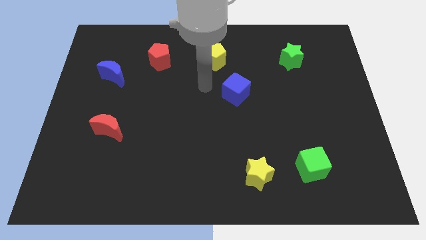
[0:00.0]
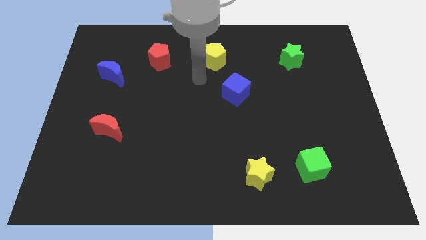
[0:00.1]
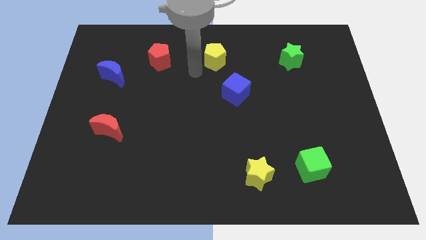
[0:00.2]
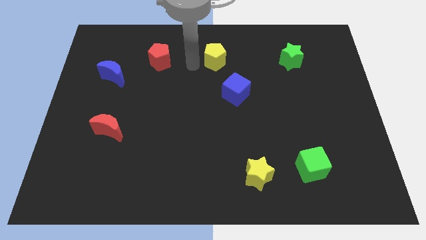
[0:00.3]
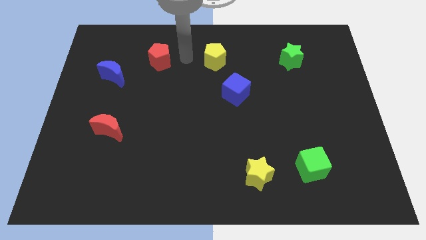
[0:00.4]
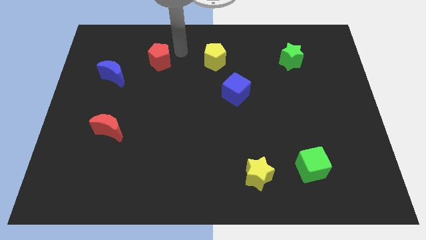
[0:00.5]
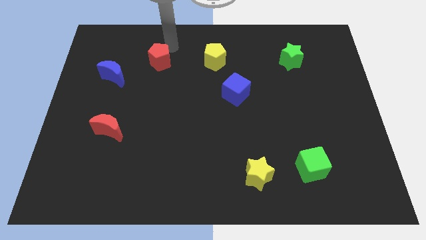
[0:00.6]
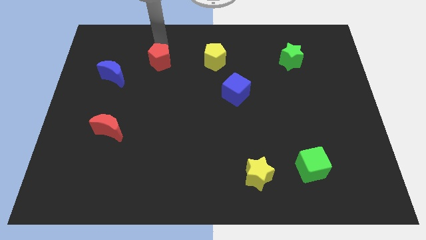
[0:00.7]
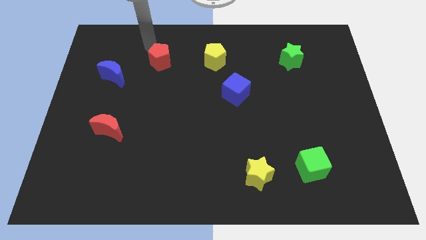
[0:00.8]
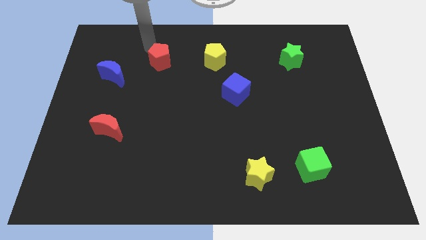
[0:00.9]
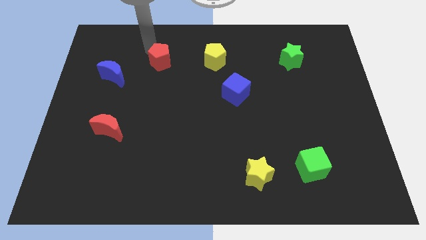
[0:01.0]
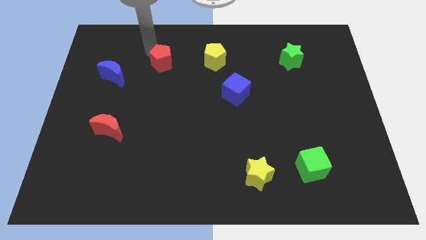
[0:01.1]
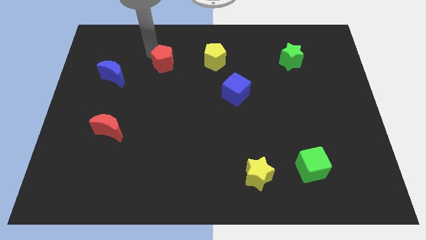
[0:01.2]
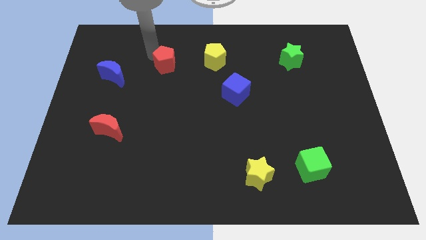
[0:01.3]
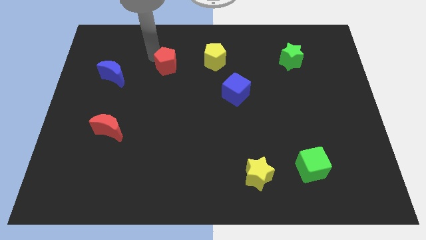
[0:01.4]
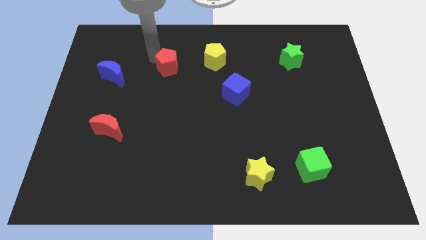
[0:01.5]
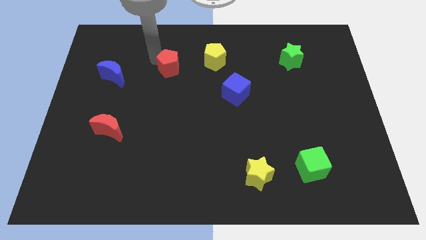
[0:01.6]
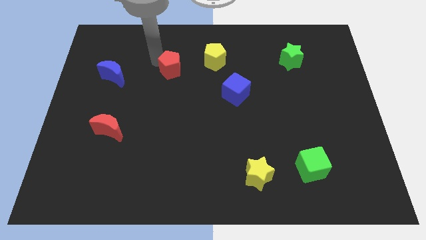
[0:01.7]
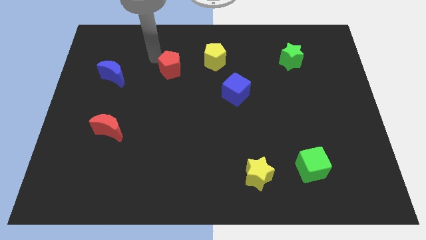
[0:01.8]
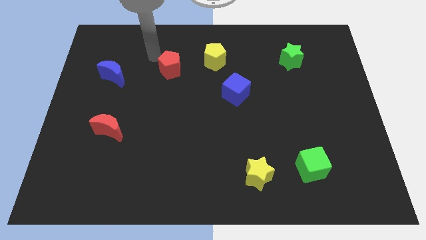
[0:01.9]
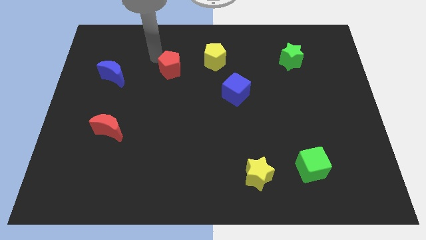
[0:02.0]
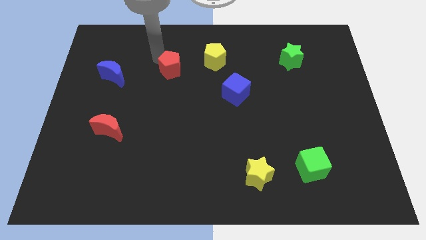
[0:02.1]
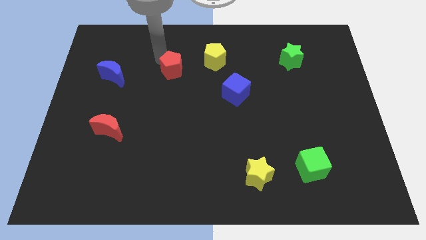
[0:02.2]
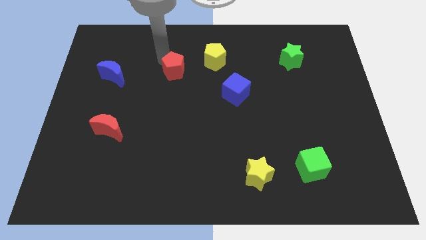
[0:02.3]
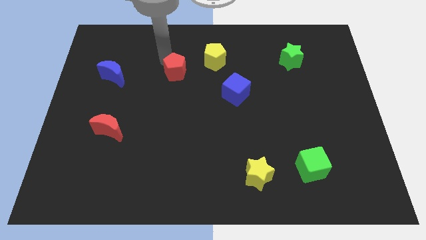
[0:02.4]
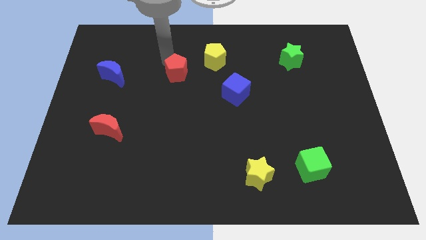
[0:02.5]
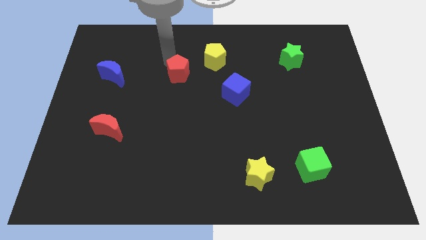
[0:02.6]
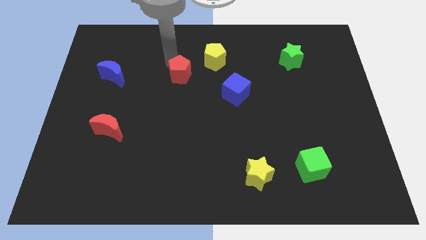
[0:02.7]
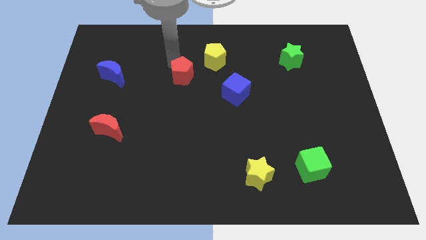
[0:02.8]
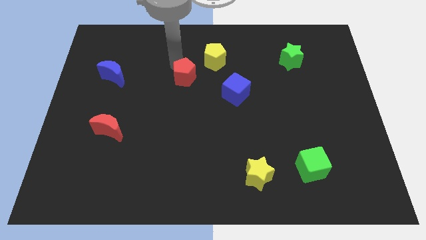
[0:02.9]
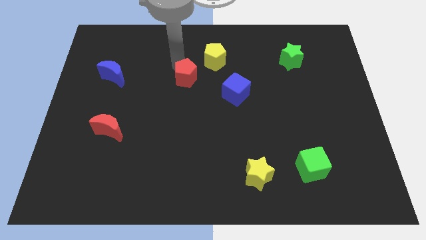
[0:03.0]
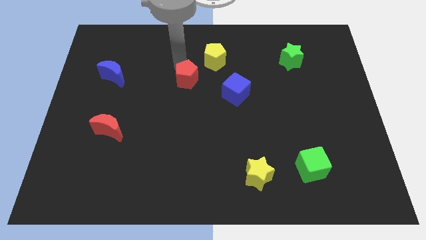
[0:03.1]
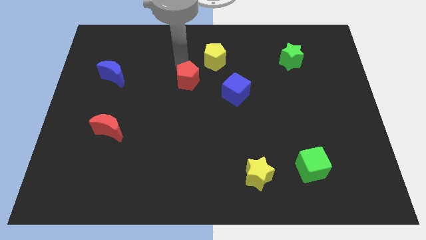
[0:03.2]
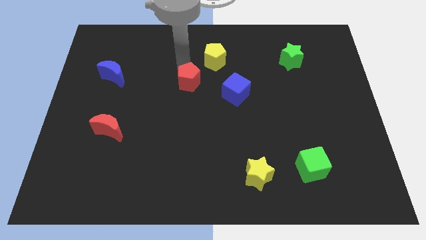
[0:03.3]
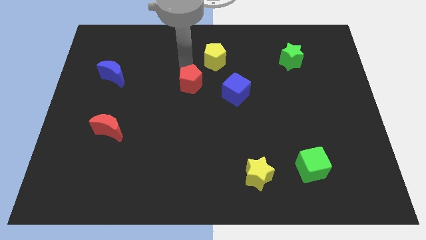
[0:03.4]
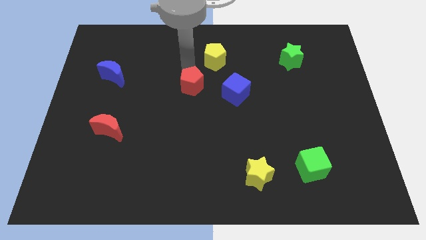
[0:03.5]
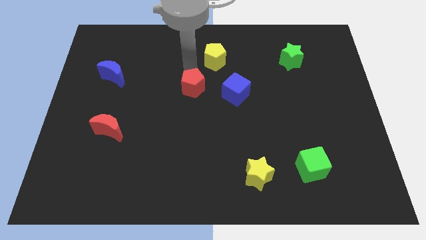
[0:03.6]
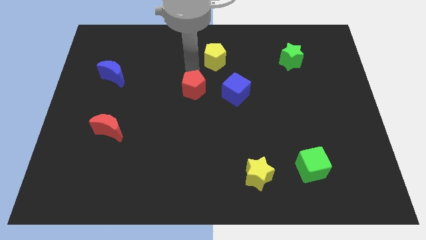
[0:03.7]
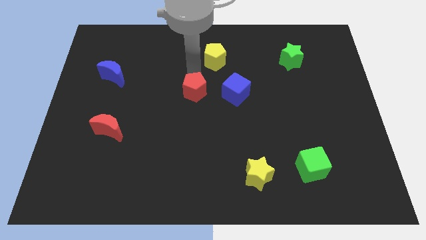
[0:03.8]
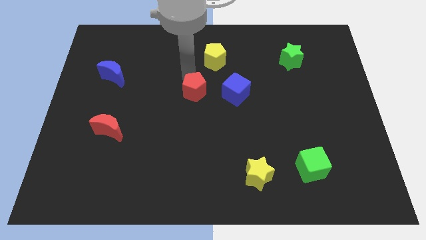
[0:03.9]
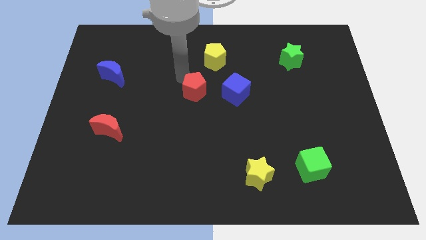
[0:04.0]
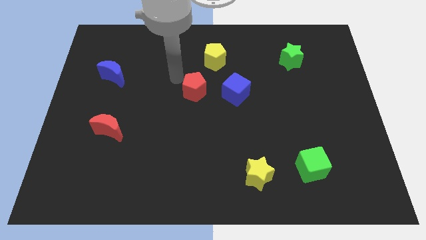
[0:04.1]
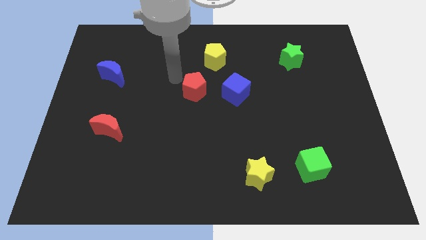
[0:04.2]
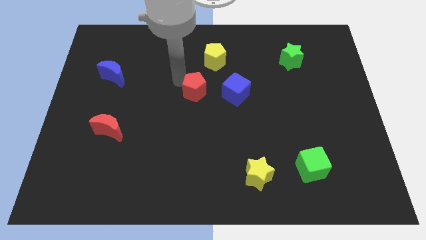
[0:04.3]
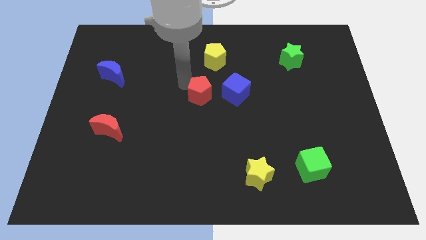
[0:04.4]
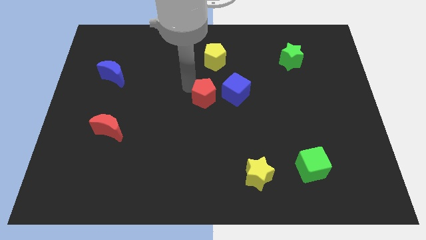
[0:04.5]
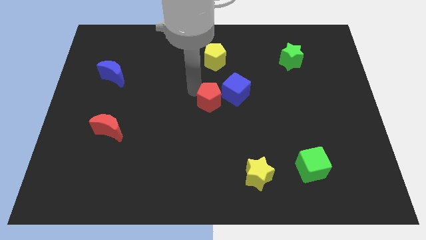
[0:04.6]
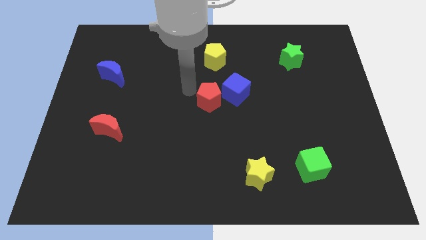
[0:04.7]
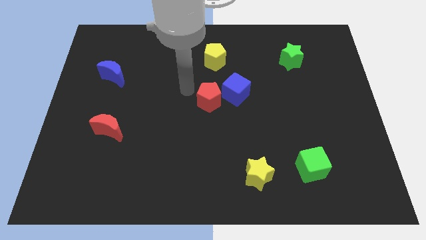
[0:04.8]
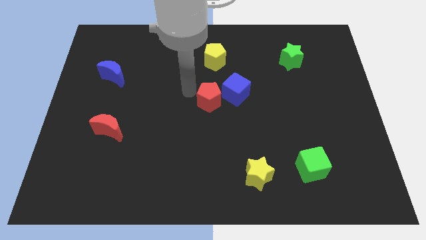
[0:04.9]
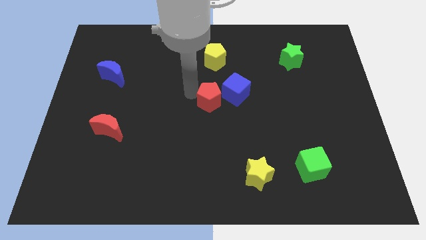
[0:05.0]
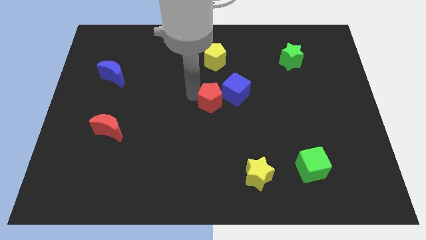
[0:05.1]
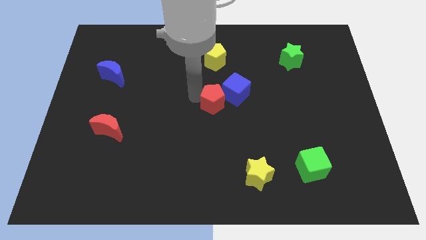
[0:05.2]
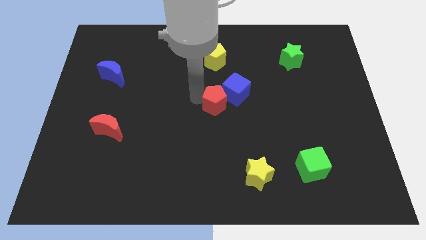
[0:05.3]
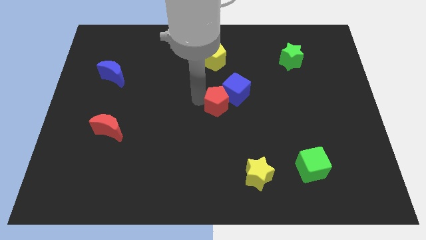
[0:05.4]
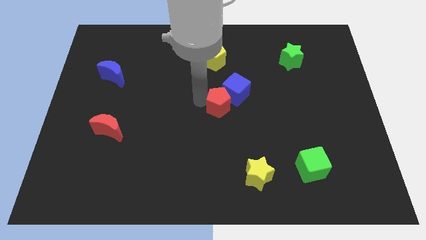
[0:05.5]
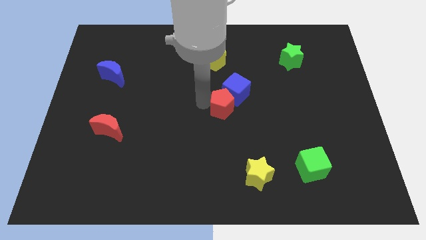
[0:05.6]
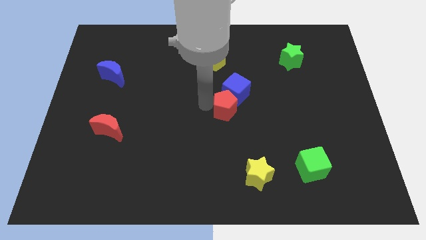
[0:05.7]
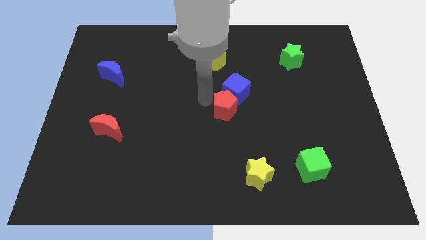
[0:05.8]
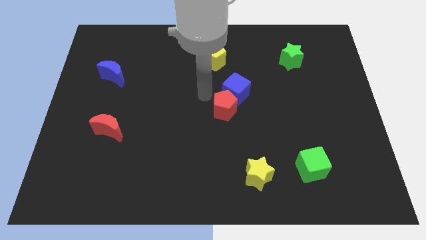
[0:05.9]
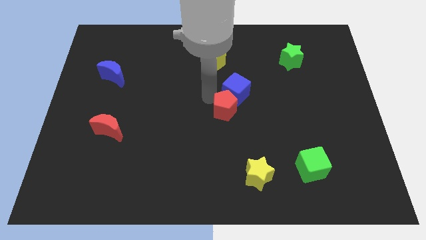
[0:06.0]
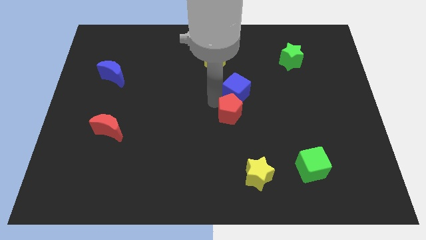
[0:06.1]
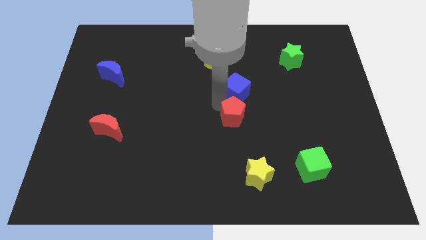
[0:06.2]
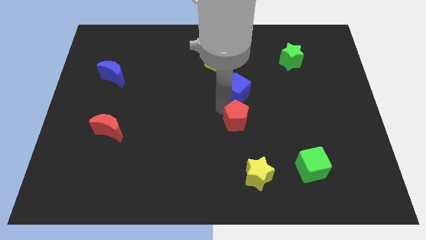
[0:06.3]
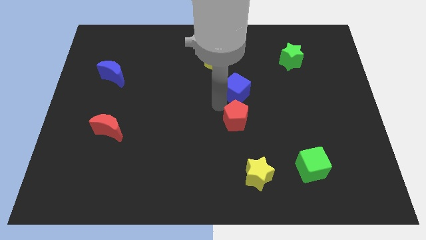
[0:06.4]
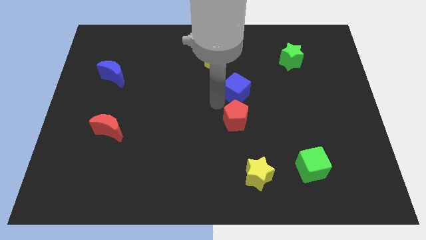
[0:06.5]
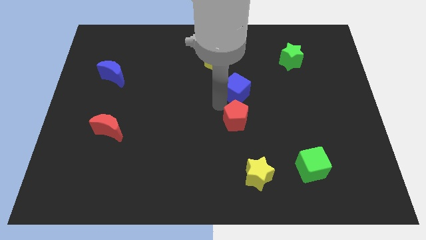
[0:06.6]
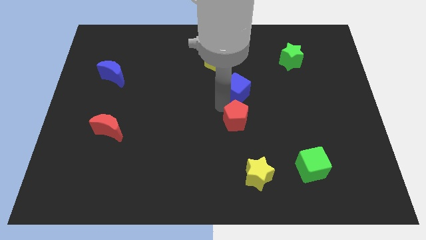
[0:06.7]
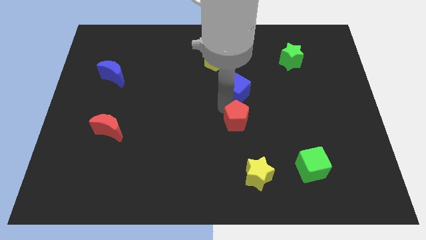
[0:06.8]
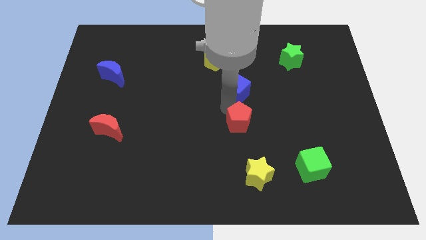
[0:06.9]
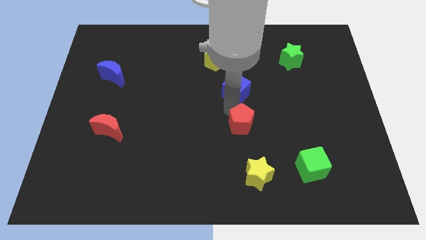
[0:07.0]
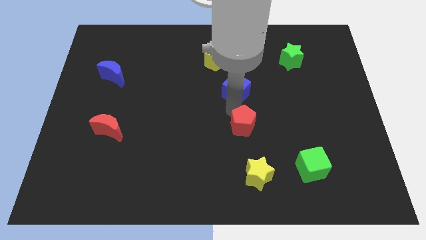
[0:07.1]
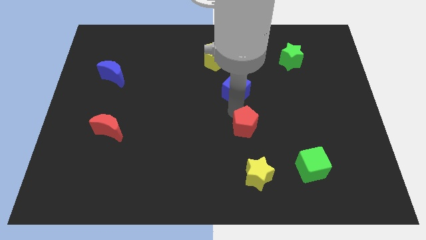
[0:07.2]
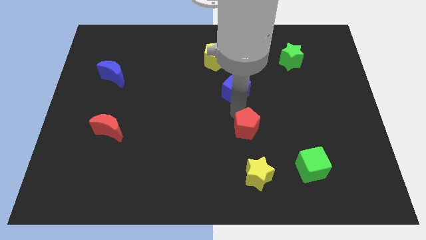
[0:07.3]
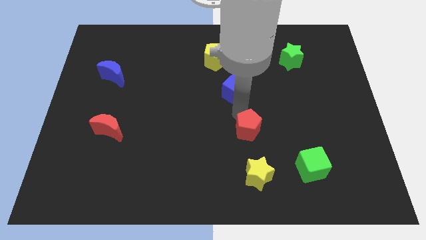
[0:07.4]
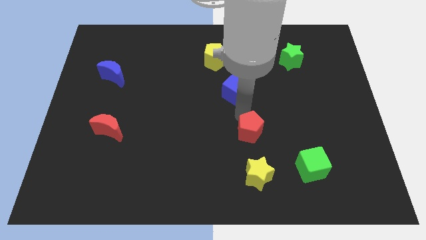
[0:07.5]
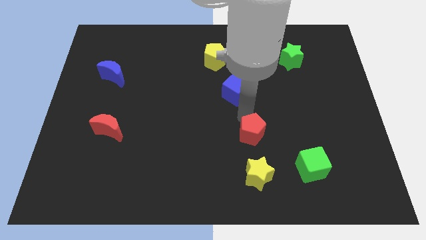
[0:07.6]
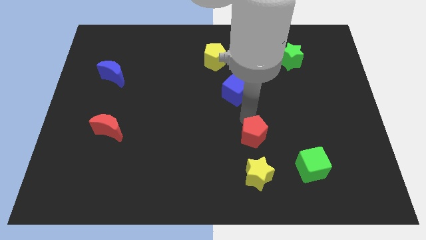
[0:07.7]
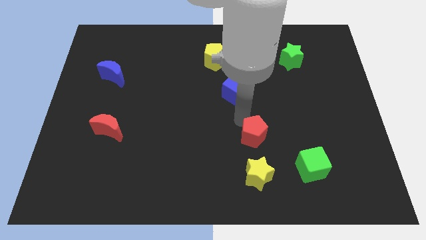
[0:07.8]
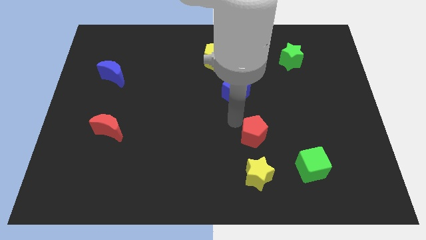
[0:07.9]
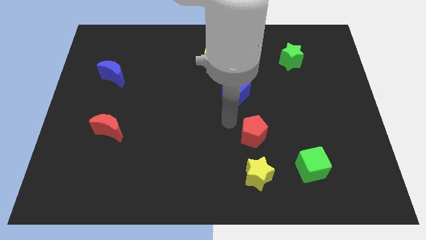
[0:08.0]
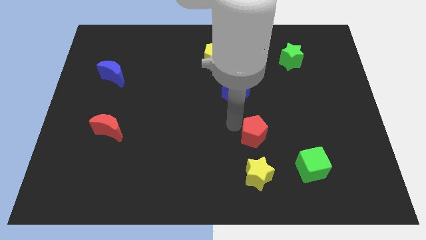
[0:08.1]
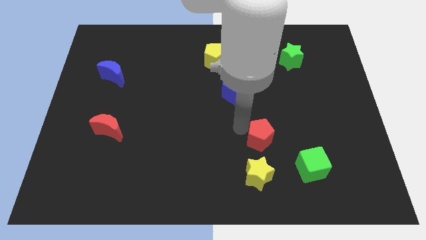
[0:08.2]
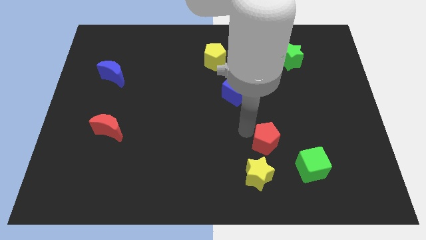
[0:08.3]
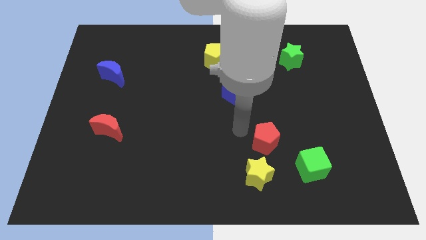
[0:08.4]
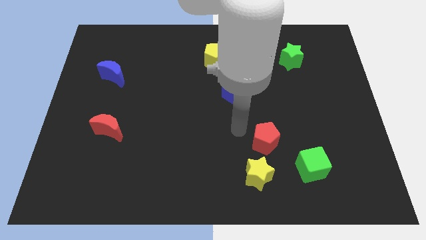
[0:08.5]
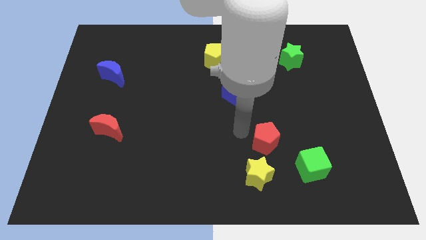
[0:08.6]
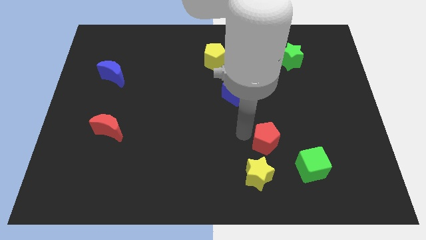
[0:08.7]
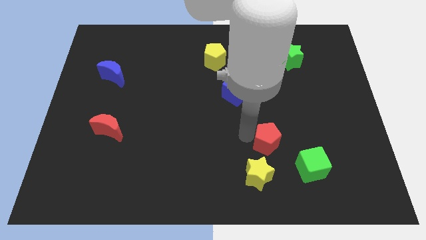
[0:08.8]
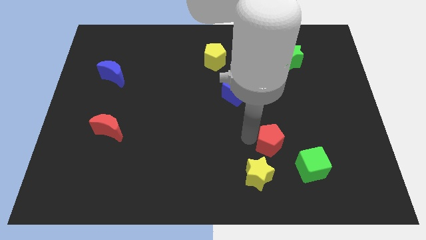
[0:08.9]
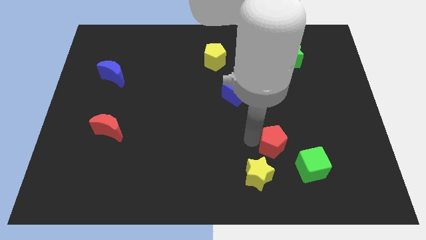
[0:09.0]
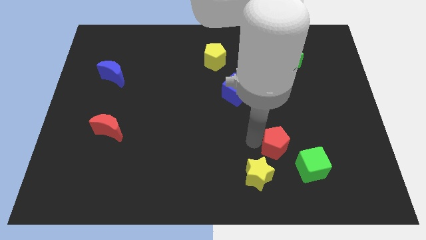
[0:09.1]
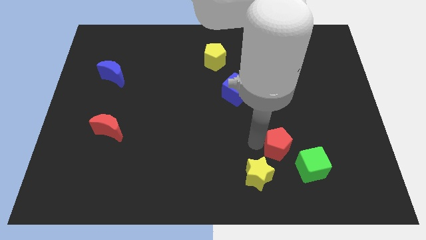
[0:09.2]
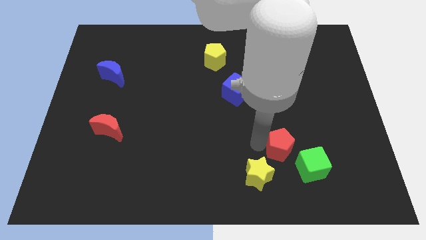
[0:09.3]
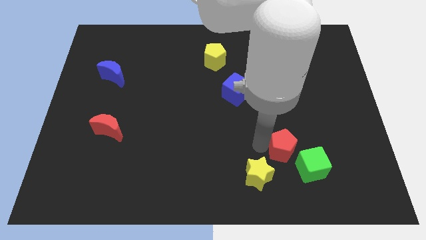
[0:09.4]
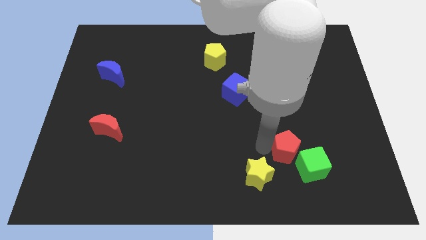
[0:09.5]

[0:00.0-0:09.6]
move the red pentagon towards the green cube
